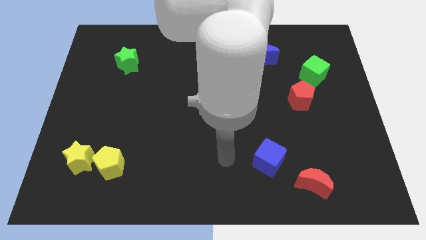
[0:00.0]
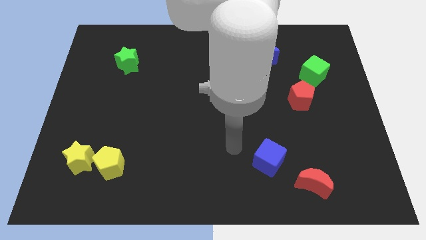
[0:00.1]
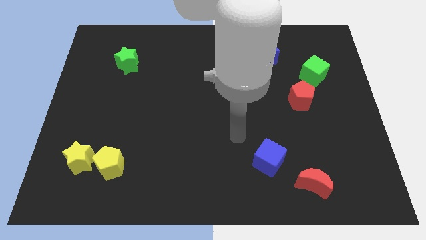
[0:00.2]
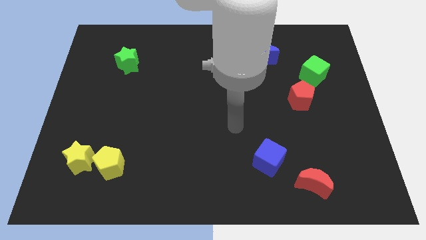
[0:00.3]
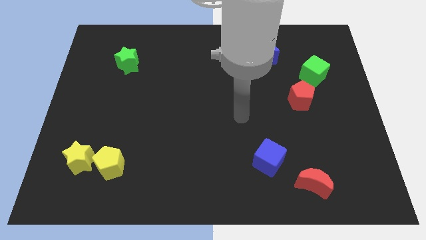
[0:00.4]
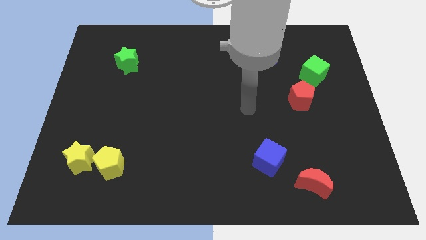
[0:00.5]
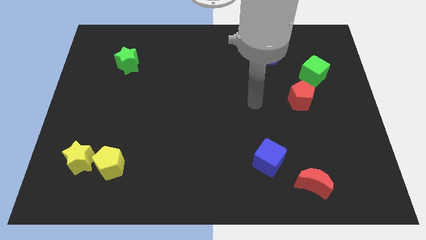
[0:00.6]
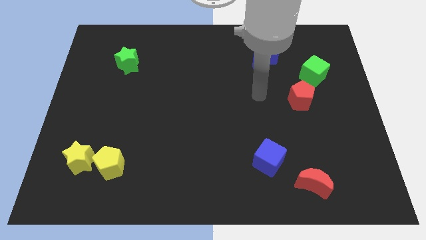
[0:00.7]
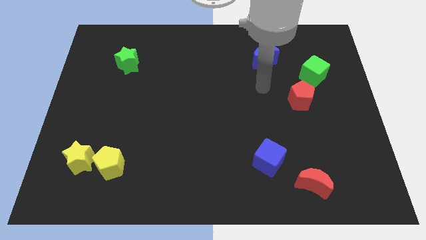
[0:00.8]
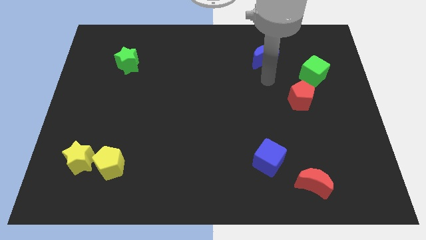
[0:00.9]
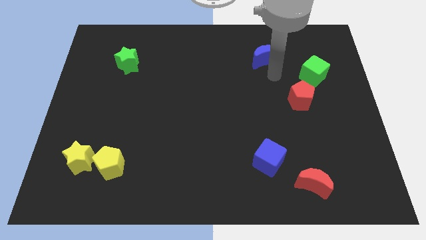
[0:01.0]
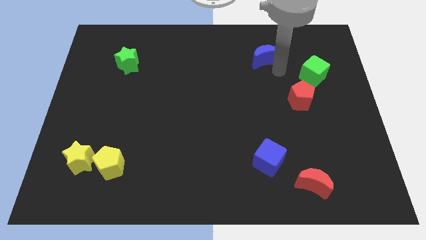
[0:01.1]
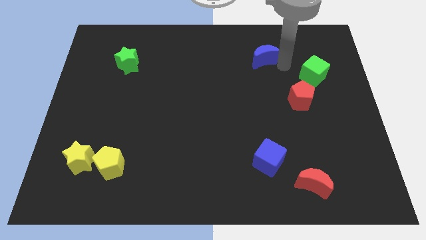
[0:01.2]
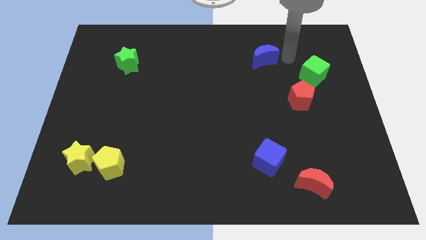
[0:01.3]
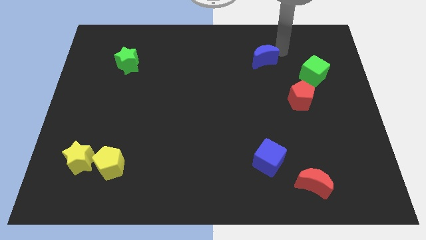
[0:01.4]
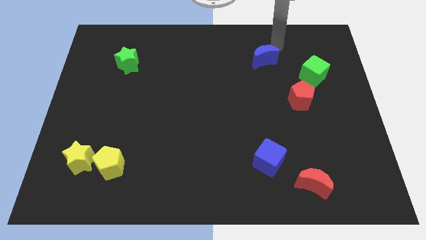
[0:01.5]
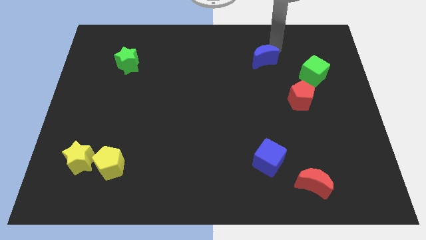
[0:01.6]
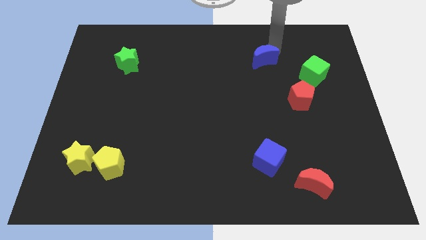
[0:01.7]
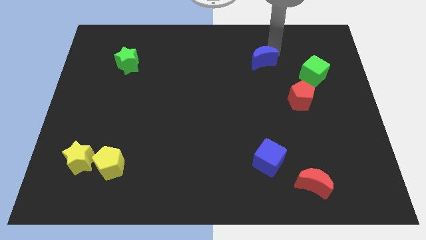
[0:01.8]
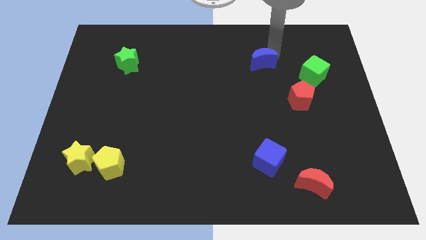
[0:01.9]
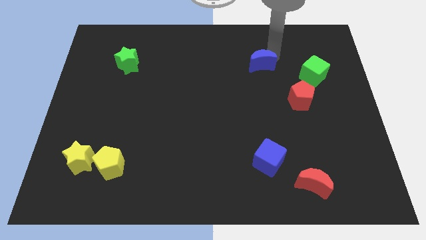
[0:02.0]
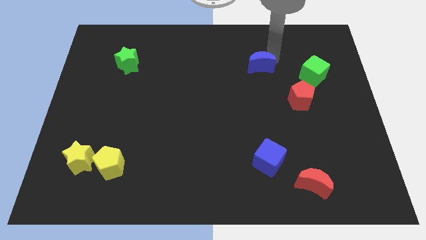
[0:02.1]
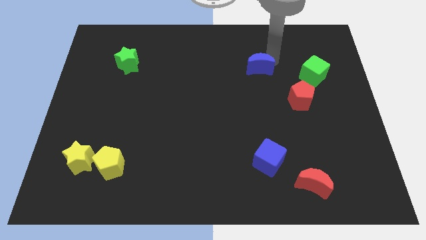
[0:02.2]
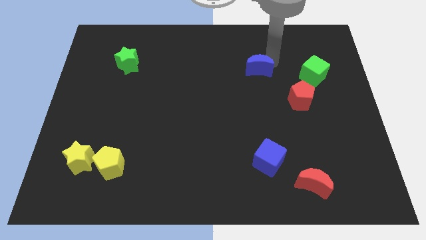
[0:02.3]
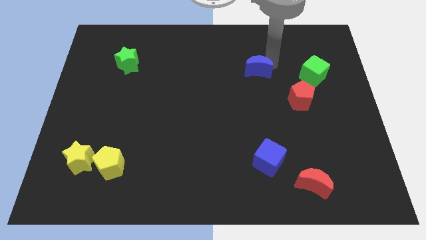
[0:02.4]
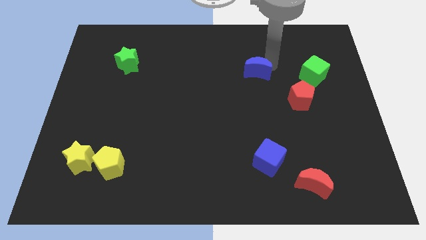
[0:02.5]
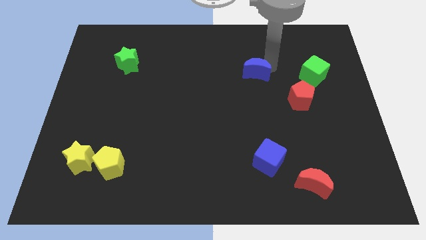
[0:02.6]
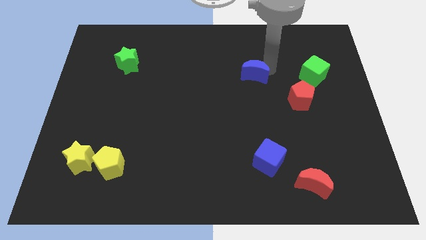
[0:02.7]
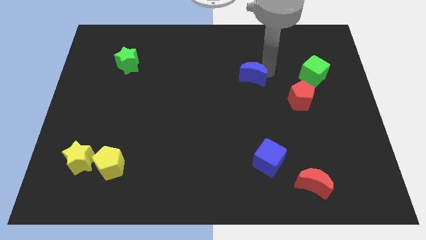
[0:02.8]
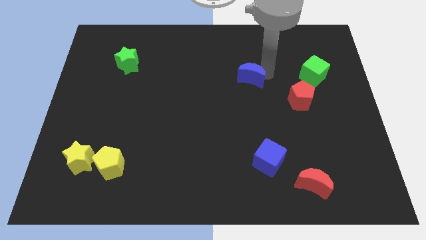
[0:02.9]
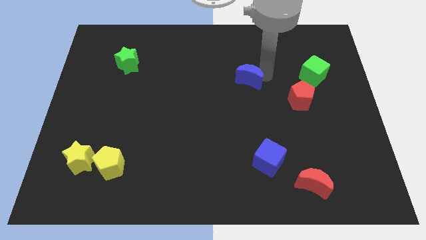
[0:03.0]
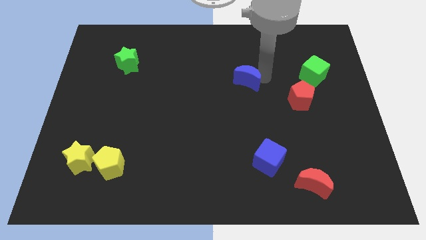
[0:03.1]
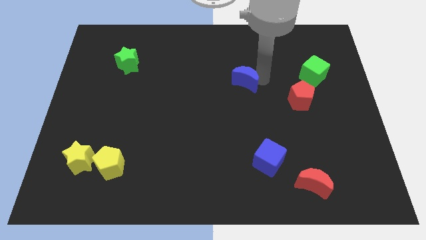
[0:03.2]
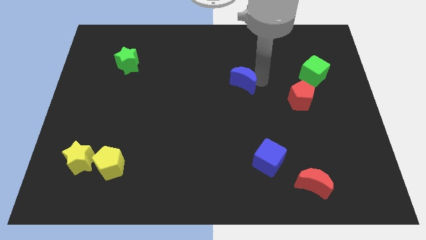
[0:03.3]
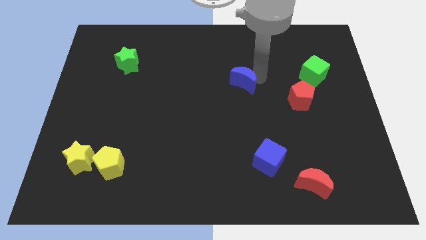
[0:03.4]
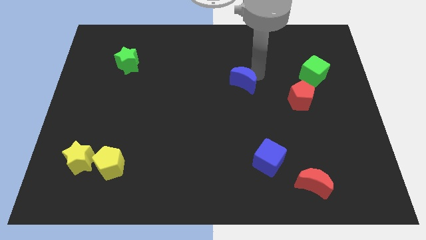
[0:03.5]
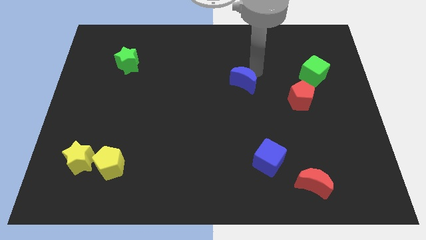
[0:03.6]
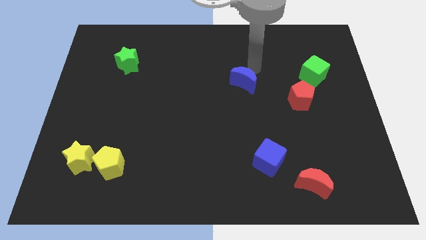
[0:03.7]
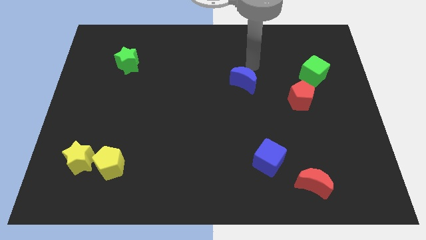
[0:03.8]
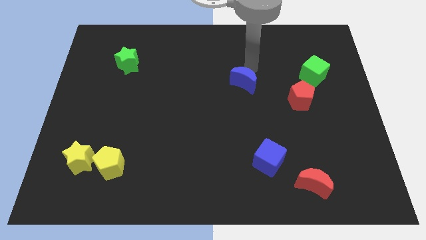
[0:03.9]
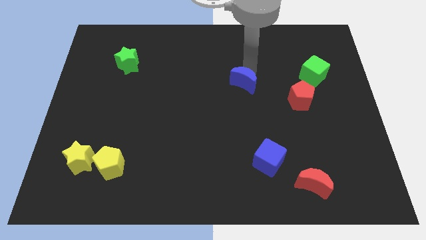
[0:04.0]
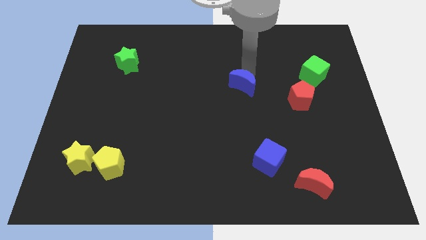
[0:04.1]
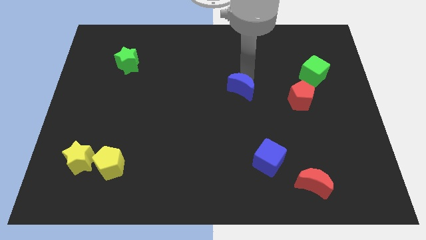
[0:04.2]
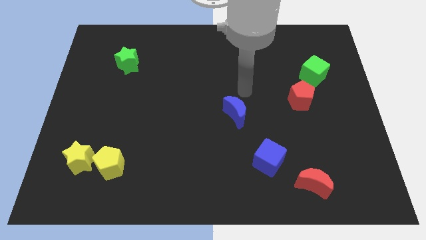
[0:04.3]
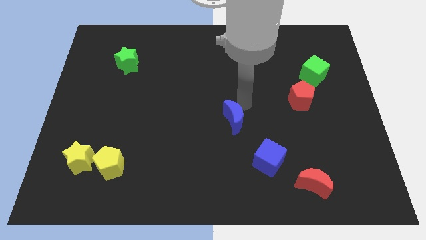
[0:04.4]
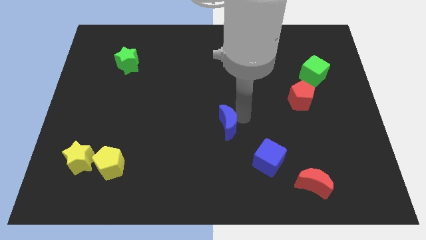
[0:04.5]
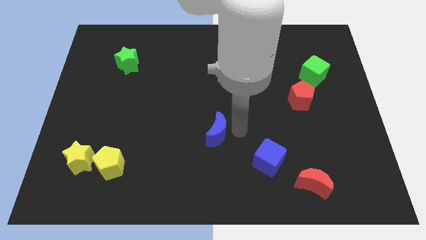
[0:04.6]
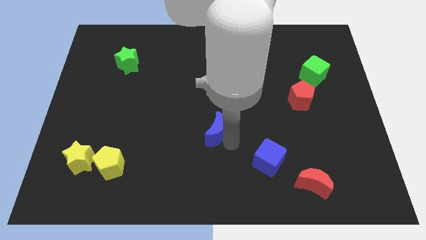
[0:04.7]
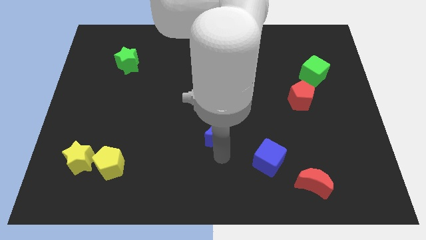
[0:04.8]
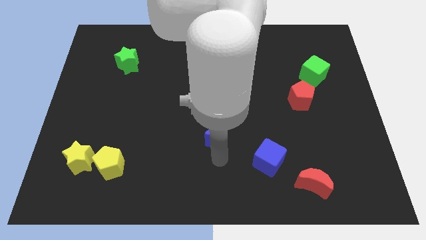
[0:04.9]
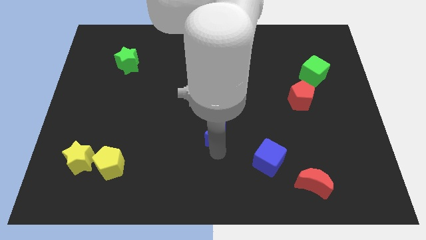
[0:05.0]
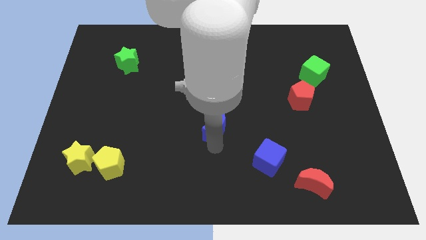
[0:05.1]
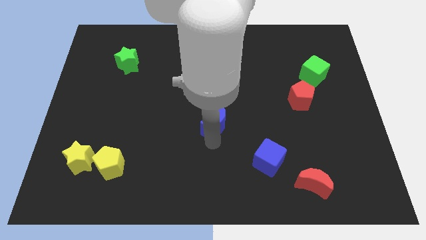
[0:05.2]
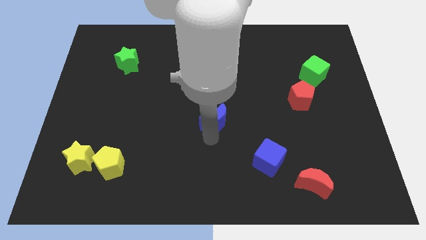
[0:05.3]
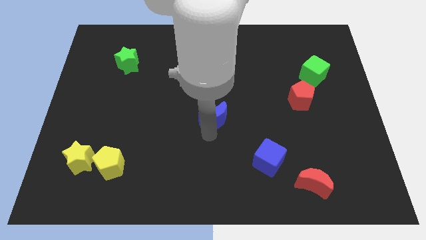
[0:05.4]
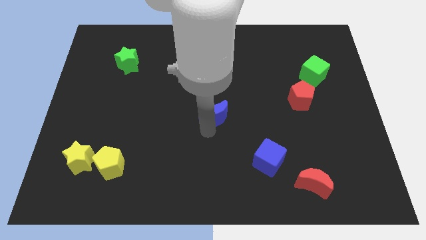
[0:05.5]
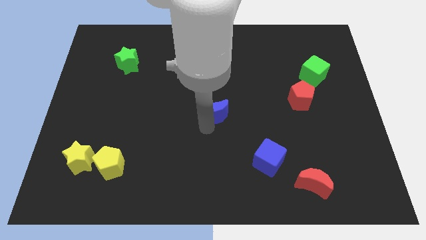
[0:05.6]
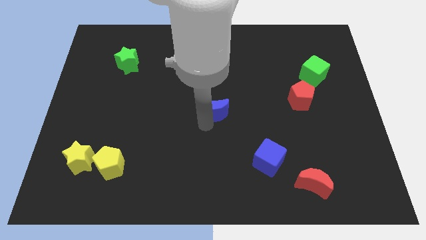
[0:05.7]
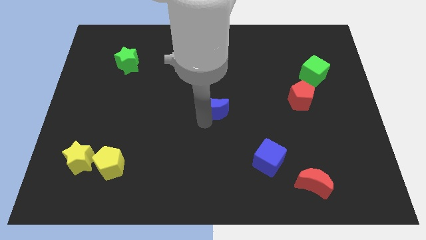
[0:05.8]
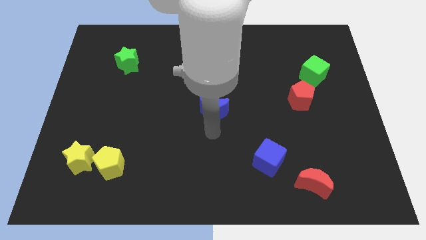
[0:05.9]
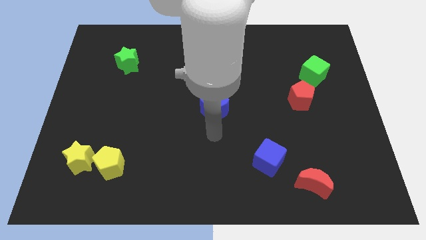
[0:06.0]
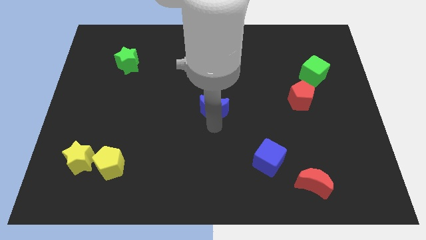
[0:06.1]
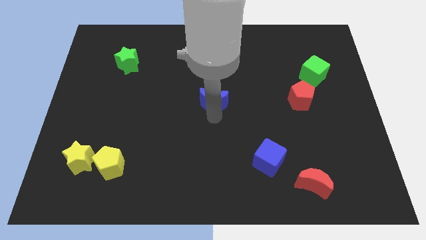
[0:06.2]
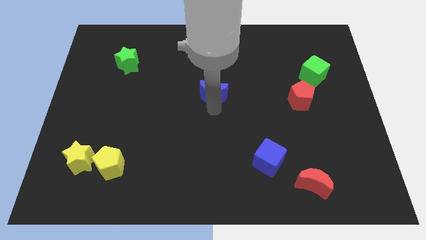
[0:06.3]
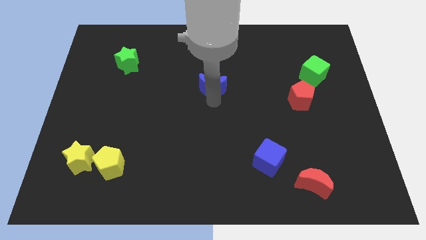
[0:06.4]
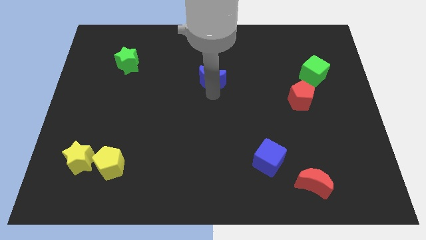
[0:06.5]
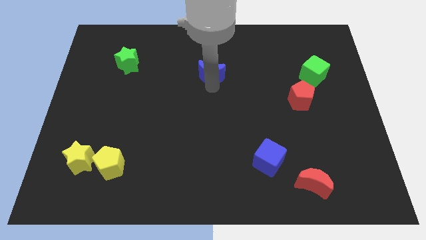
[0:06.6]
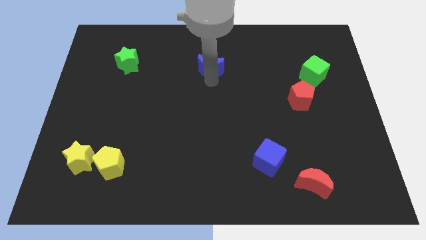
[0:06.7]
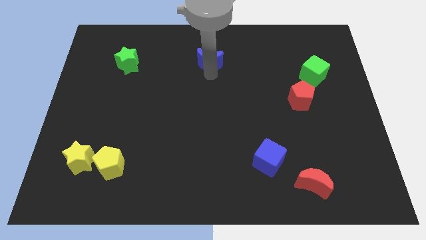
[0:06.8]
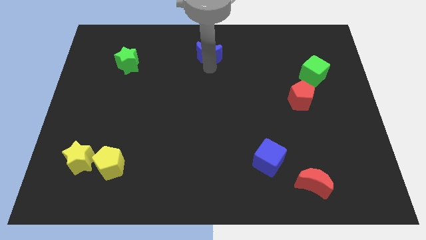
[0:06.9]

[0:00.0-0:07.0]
move the blue moon to the top side
